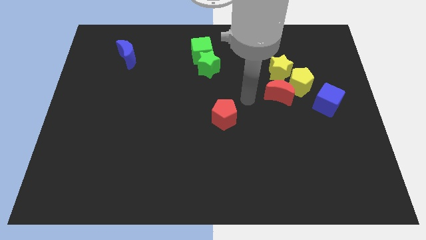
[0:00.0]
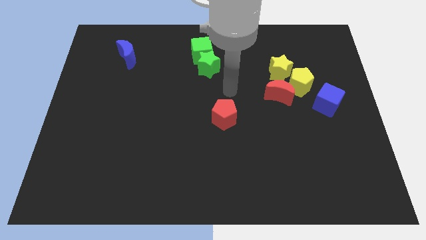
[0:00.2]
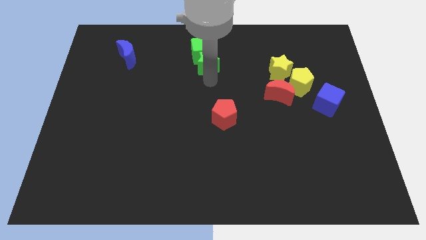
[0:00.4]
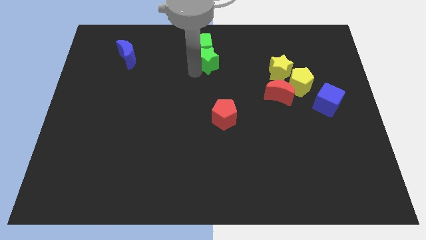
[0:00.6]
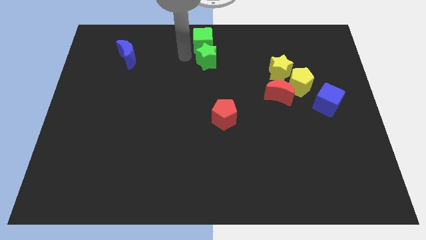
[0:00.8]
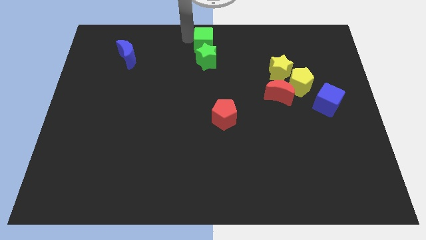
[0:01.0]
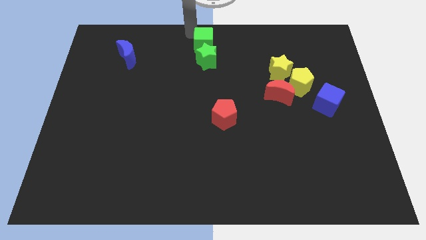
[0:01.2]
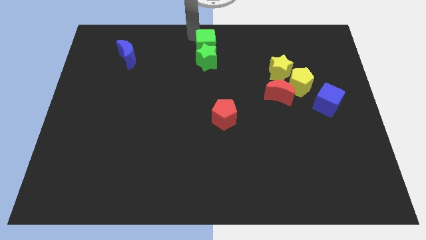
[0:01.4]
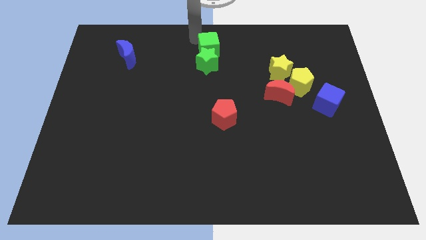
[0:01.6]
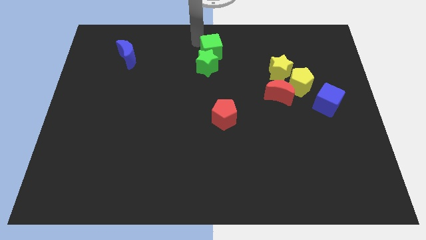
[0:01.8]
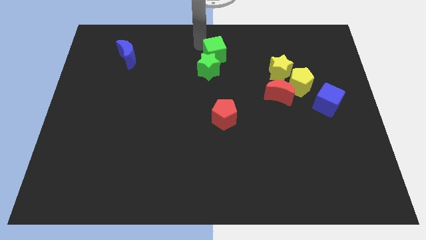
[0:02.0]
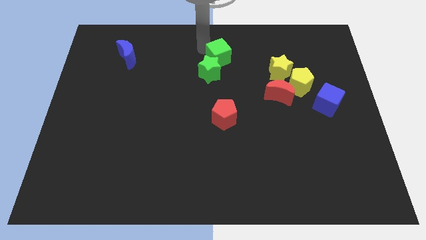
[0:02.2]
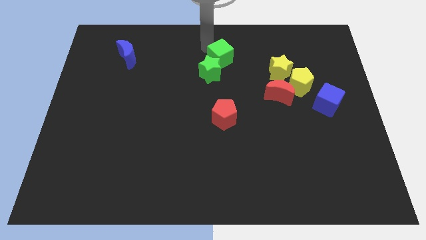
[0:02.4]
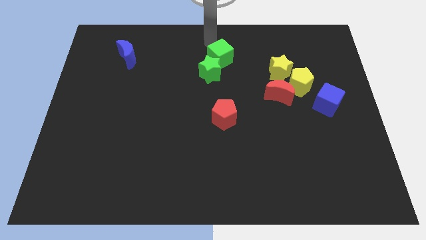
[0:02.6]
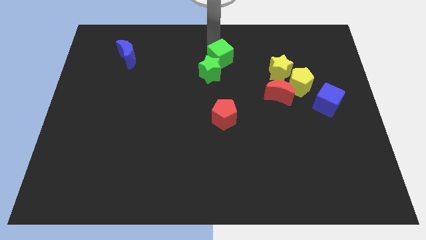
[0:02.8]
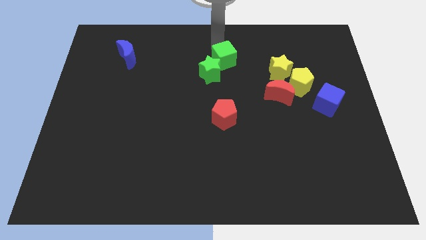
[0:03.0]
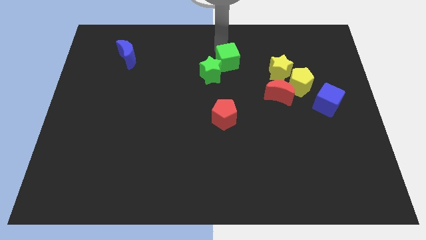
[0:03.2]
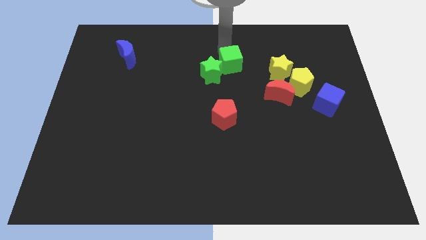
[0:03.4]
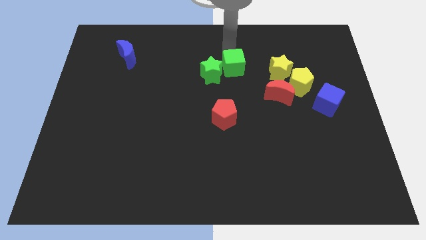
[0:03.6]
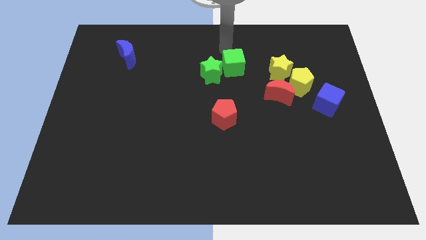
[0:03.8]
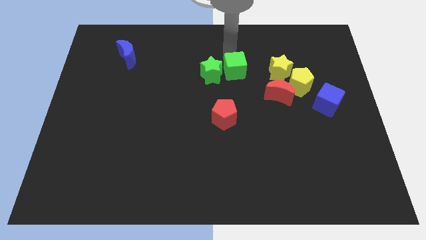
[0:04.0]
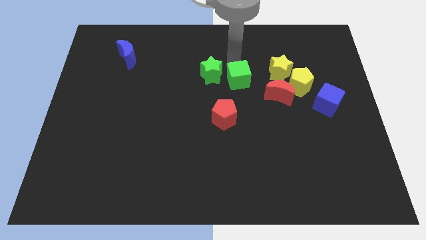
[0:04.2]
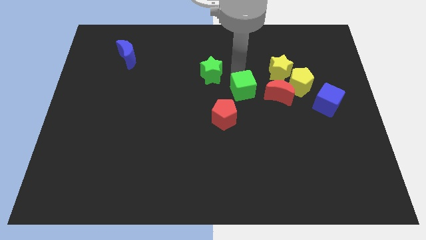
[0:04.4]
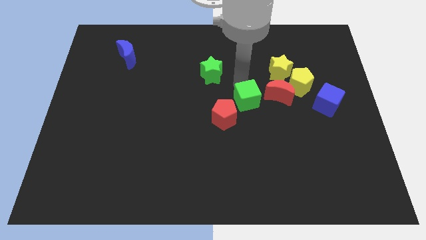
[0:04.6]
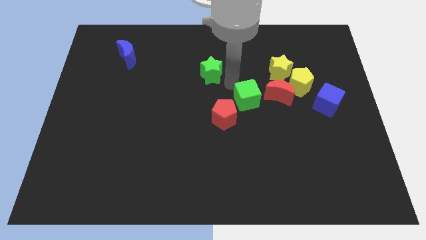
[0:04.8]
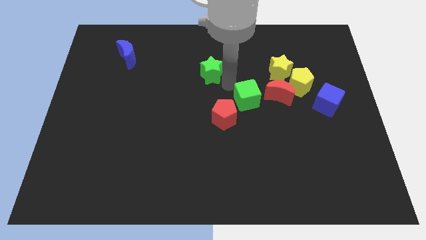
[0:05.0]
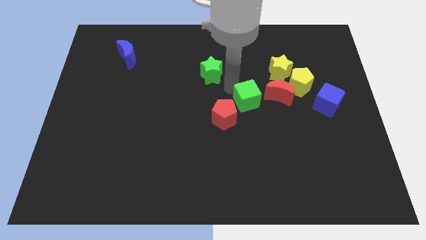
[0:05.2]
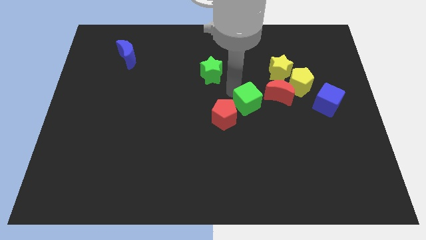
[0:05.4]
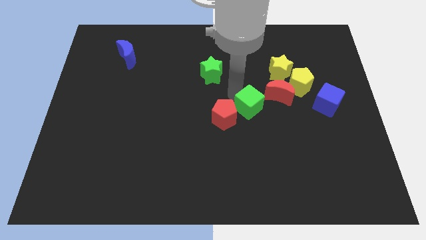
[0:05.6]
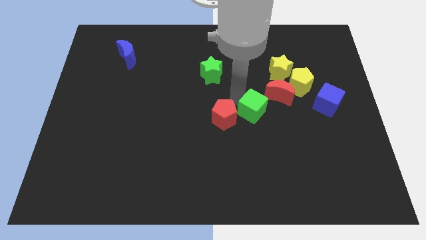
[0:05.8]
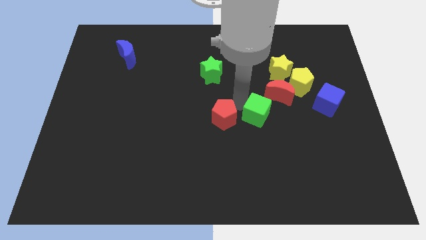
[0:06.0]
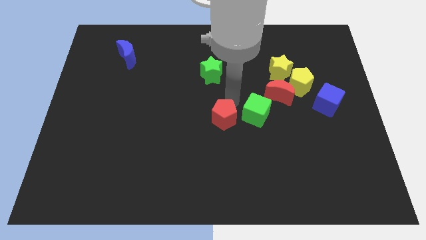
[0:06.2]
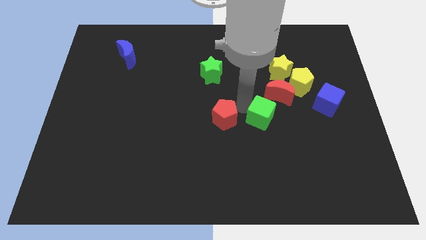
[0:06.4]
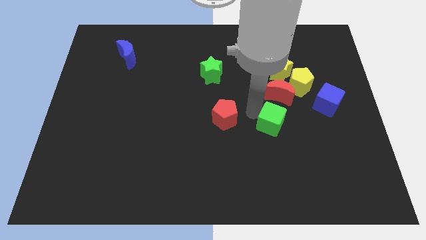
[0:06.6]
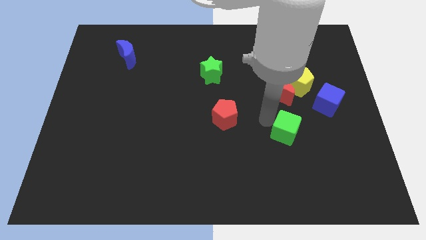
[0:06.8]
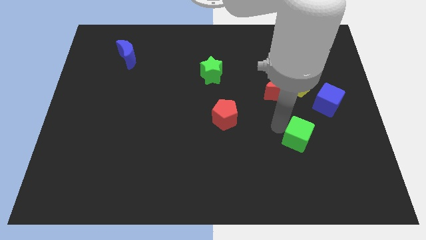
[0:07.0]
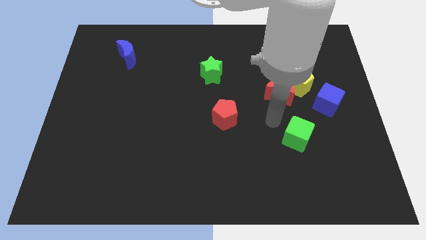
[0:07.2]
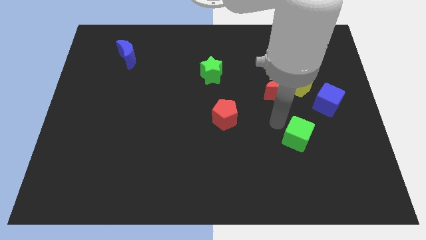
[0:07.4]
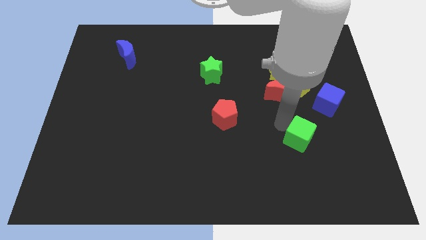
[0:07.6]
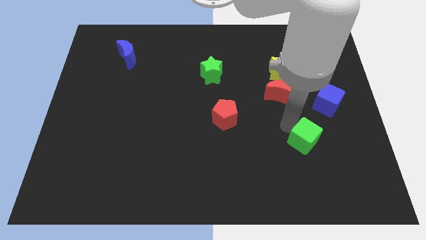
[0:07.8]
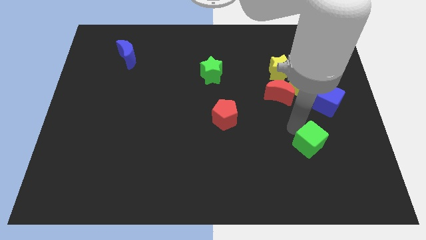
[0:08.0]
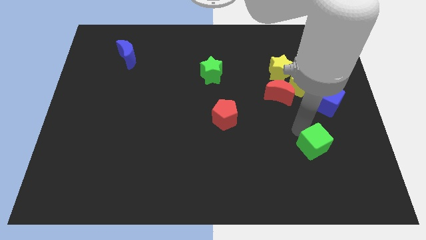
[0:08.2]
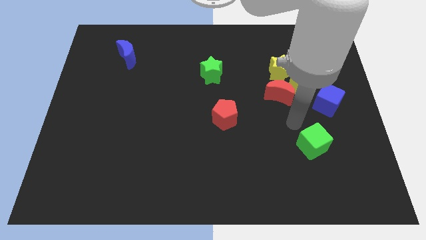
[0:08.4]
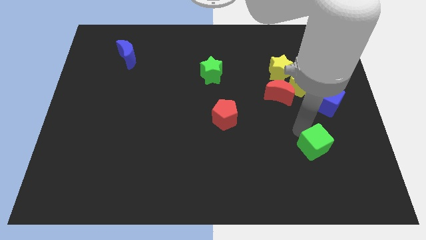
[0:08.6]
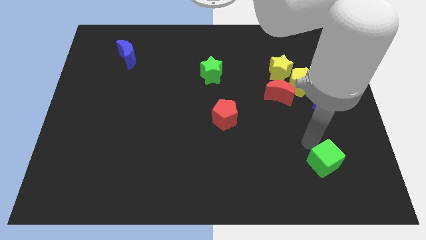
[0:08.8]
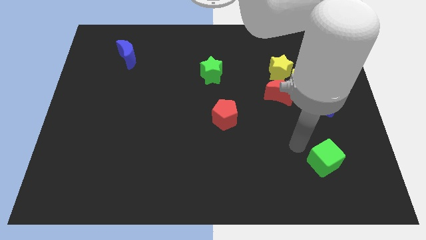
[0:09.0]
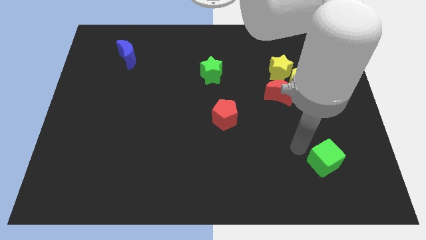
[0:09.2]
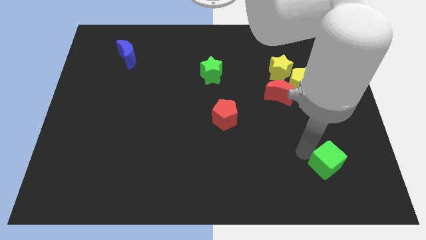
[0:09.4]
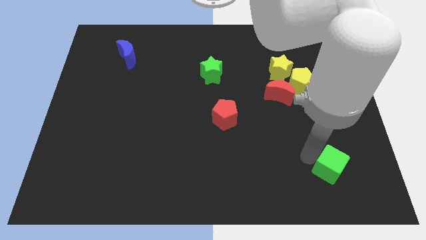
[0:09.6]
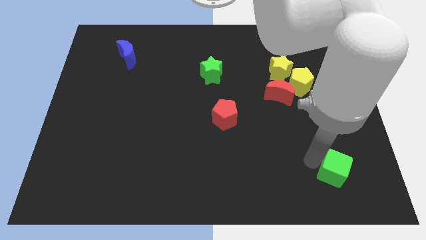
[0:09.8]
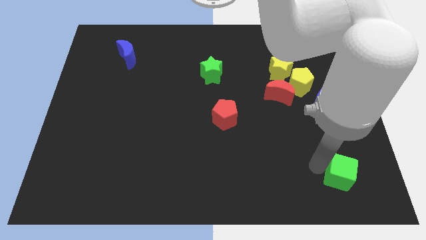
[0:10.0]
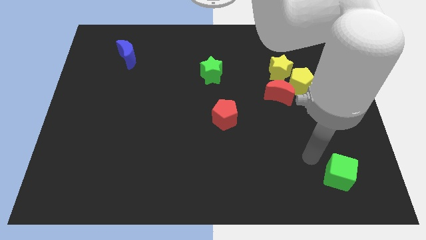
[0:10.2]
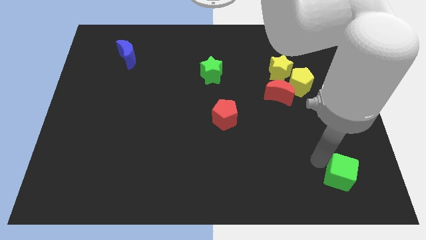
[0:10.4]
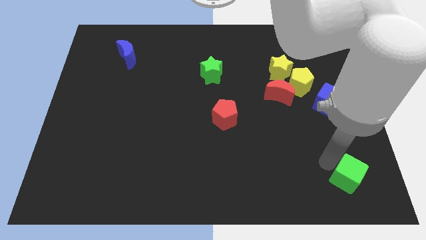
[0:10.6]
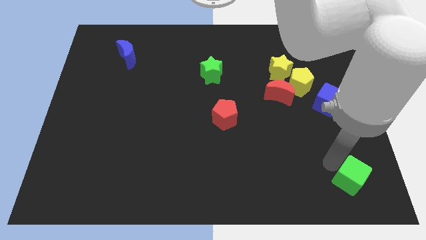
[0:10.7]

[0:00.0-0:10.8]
push the green cube to the lower right corner
